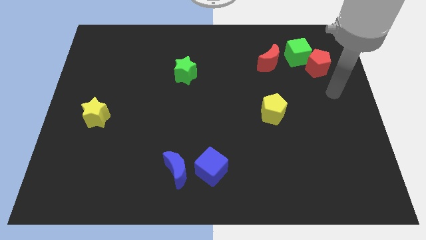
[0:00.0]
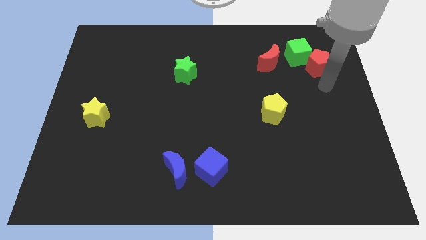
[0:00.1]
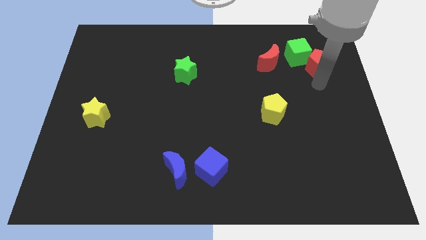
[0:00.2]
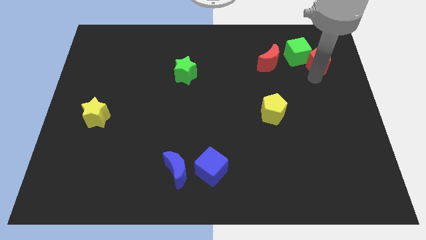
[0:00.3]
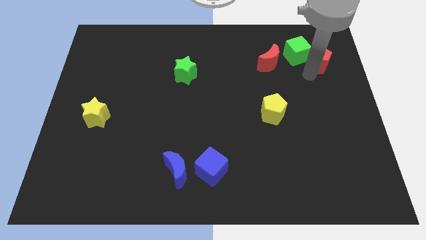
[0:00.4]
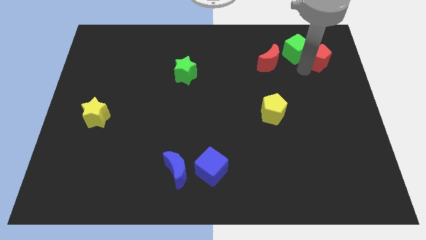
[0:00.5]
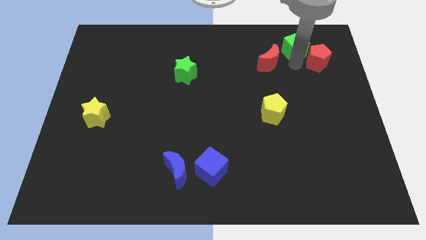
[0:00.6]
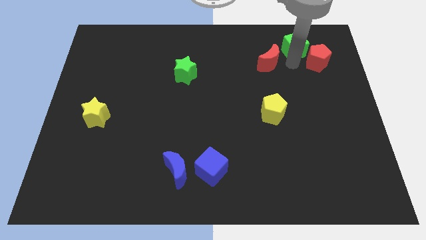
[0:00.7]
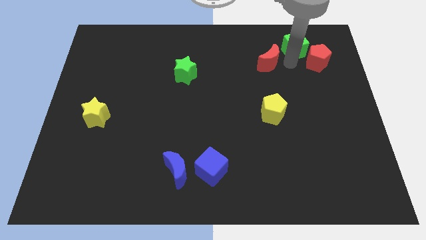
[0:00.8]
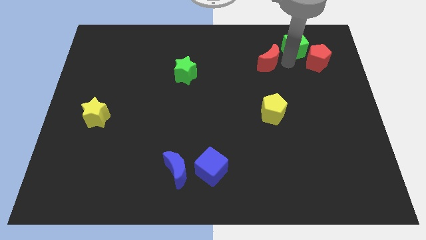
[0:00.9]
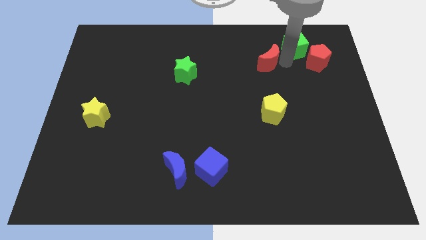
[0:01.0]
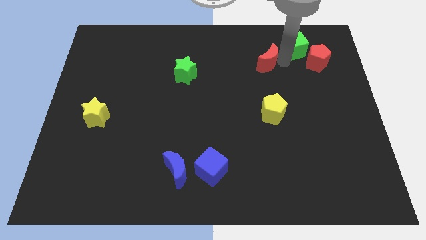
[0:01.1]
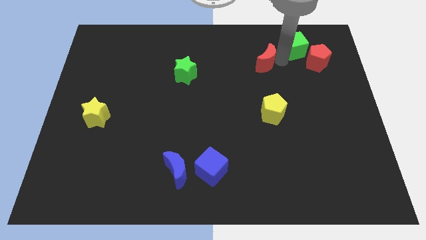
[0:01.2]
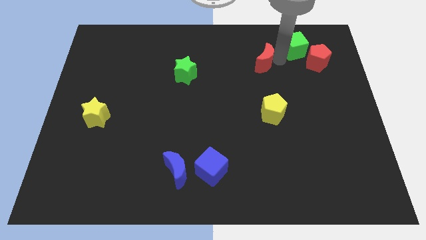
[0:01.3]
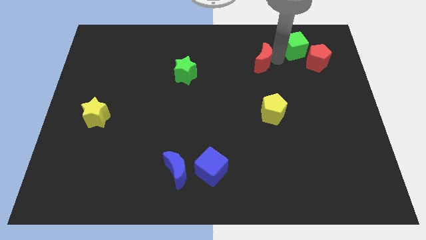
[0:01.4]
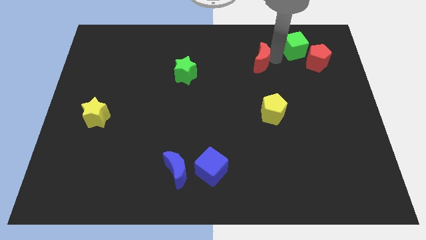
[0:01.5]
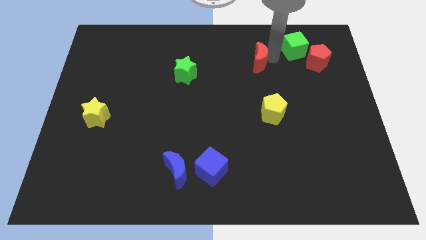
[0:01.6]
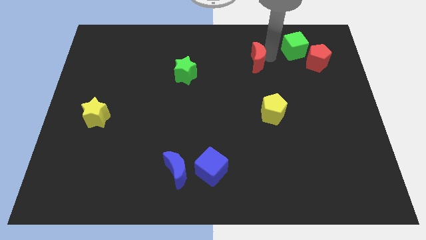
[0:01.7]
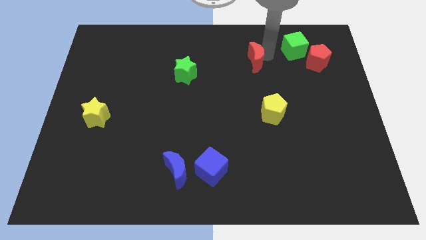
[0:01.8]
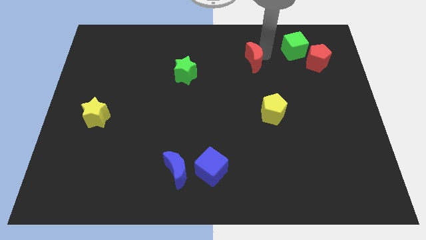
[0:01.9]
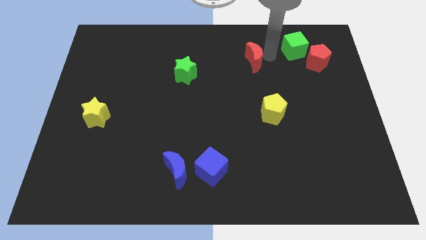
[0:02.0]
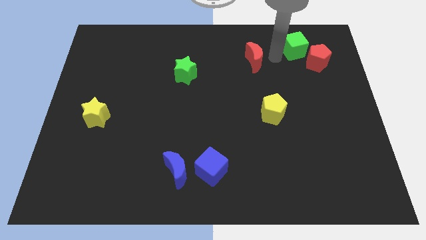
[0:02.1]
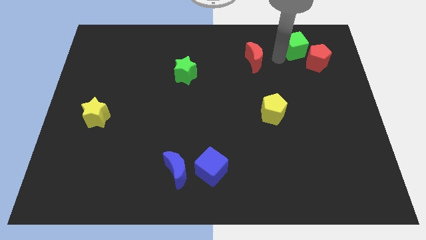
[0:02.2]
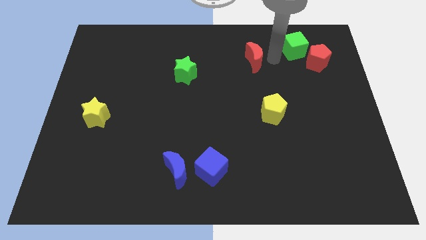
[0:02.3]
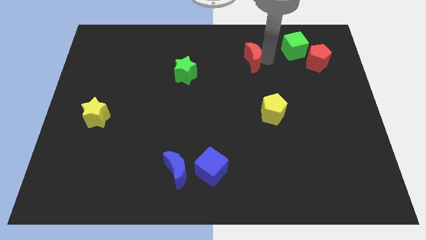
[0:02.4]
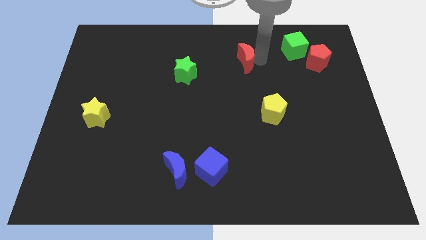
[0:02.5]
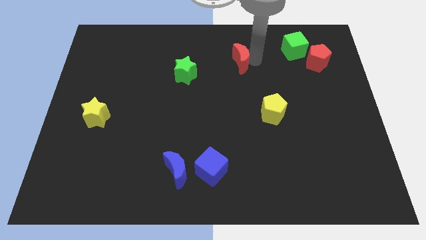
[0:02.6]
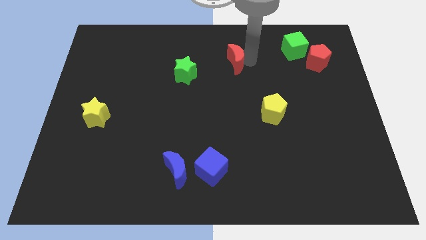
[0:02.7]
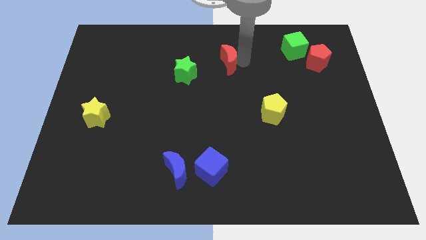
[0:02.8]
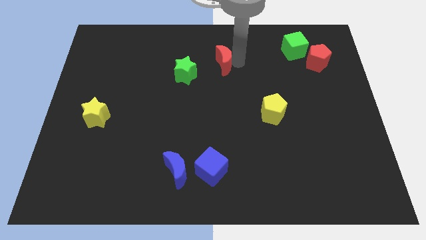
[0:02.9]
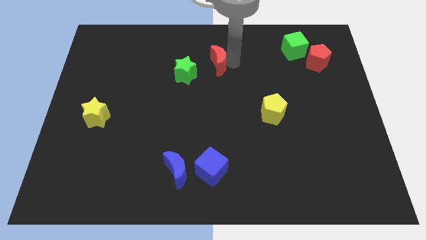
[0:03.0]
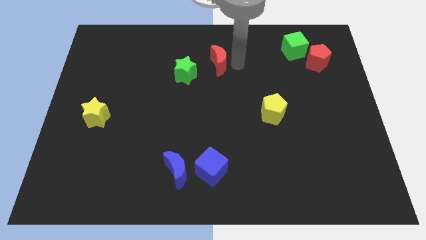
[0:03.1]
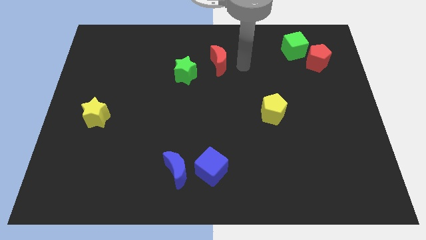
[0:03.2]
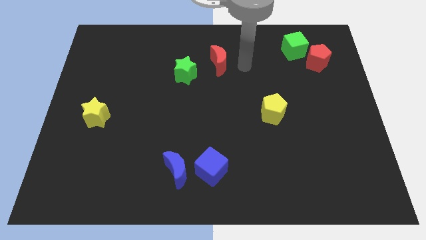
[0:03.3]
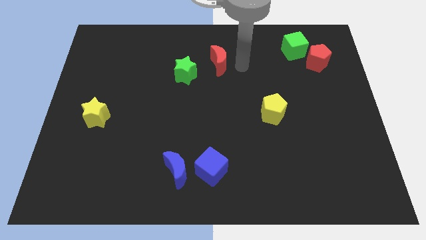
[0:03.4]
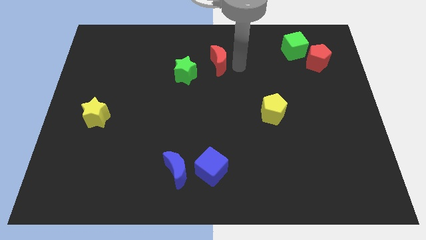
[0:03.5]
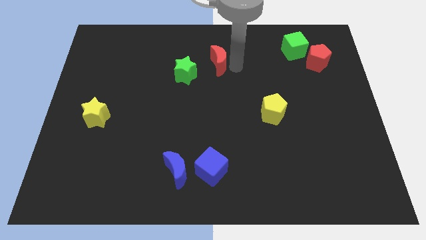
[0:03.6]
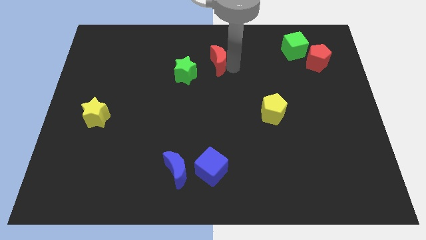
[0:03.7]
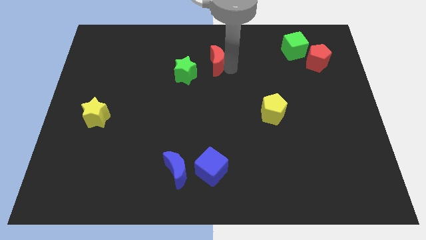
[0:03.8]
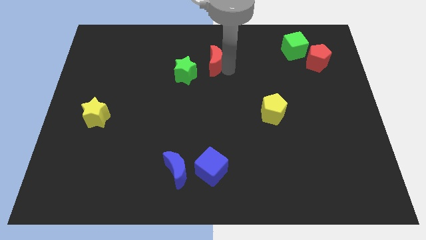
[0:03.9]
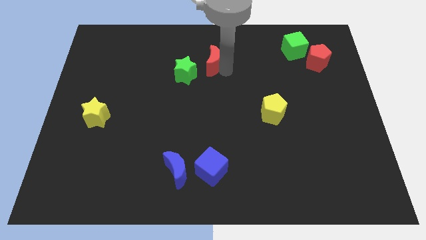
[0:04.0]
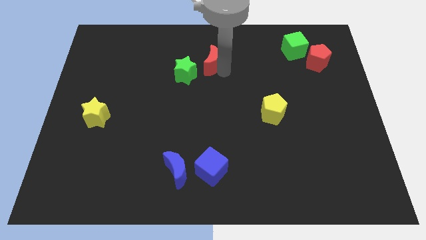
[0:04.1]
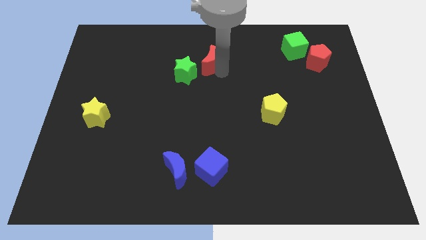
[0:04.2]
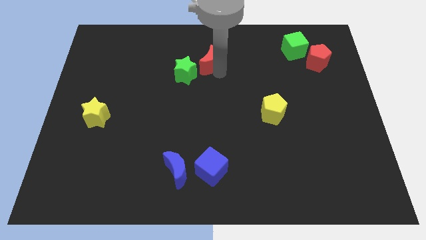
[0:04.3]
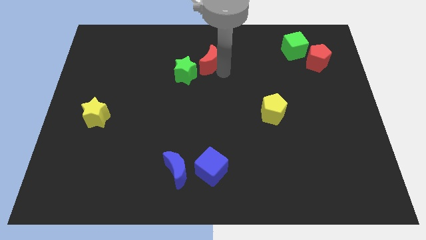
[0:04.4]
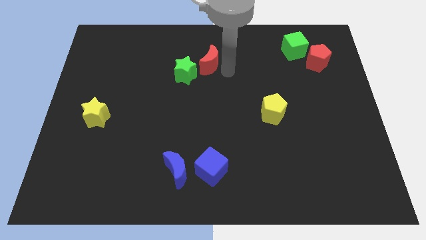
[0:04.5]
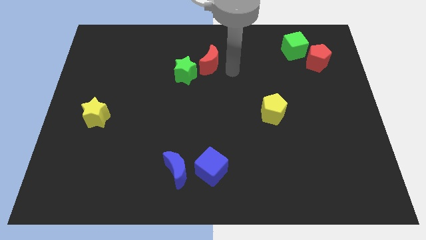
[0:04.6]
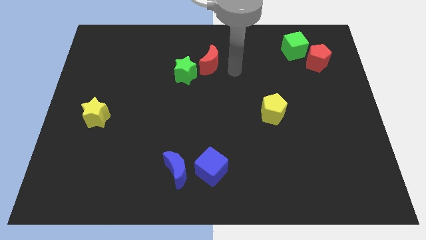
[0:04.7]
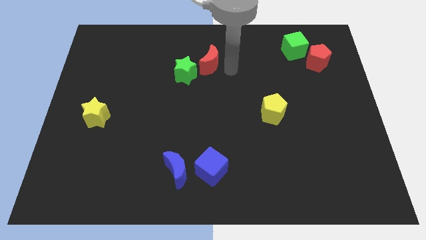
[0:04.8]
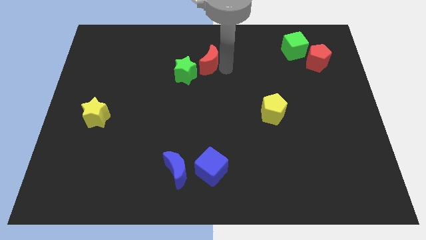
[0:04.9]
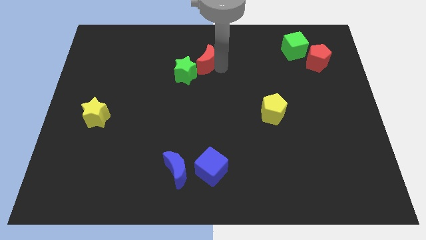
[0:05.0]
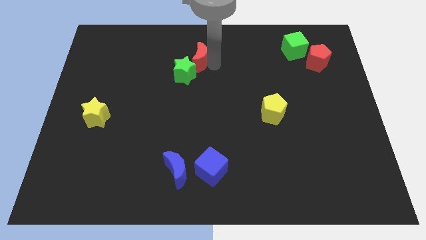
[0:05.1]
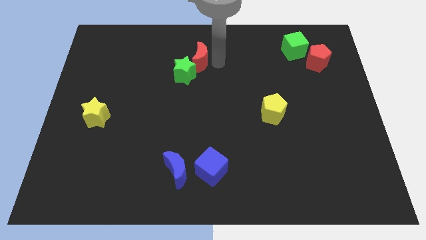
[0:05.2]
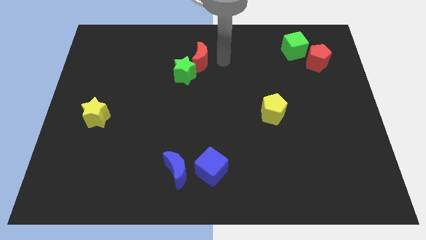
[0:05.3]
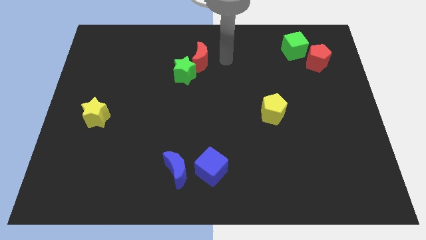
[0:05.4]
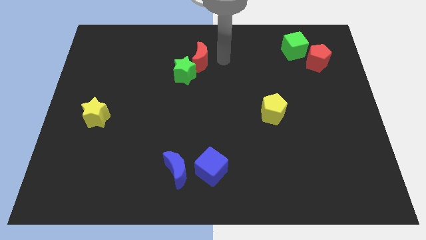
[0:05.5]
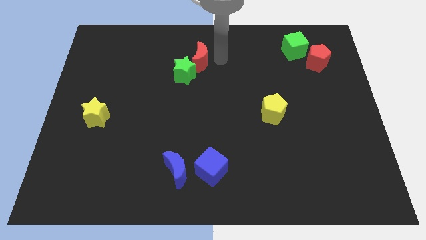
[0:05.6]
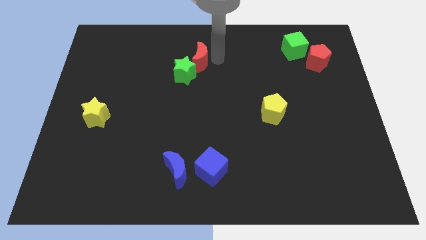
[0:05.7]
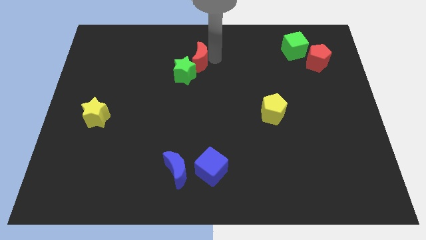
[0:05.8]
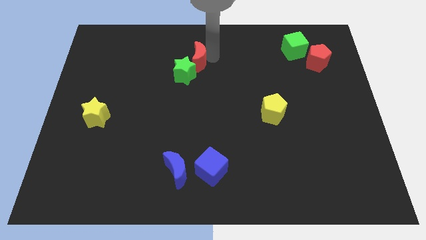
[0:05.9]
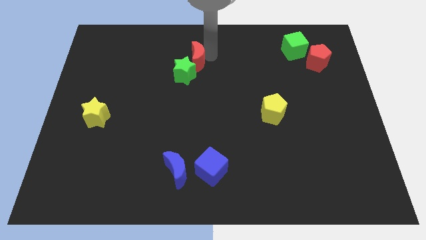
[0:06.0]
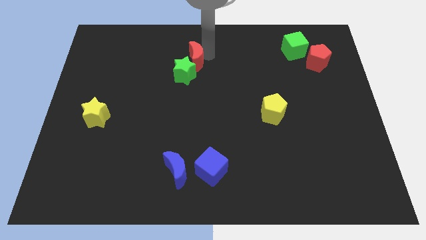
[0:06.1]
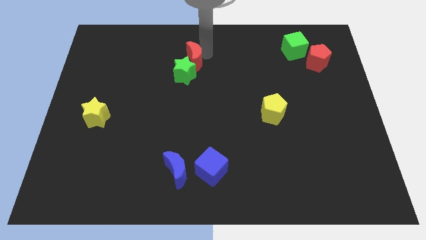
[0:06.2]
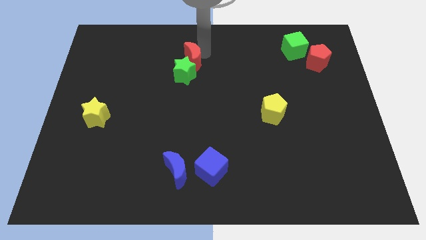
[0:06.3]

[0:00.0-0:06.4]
slide the red moon left

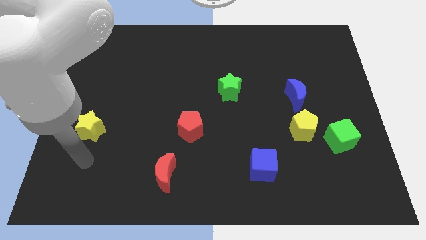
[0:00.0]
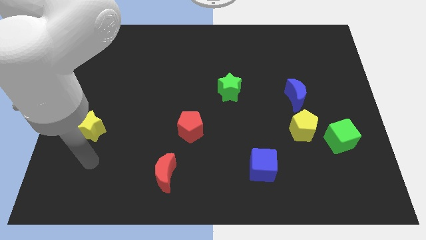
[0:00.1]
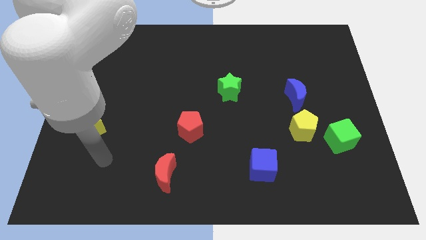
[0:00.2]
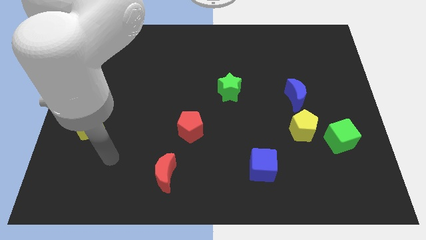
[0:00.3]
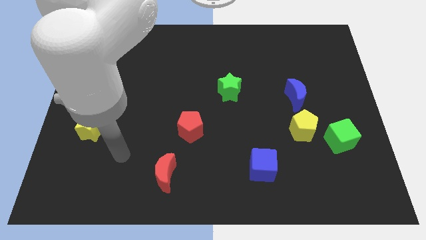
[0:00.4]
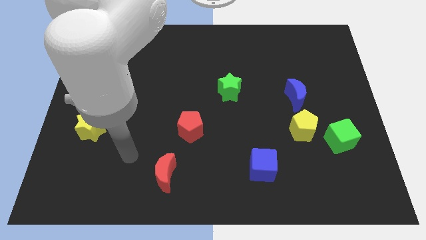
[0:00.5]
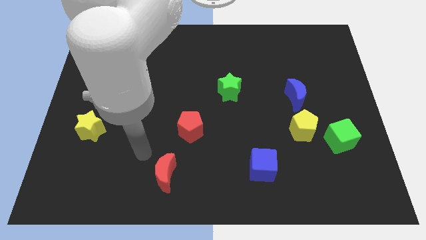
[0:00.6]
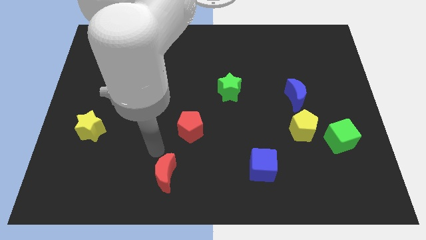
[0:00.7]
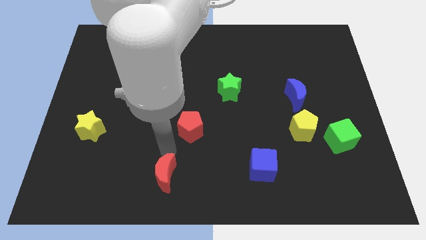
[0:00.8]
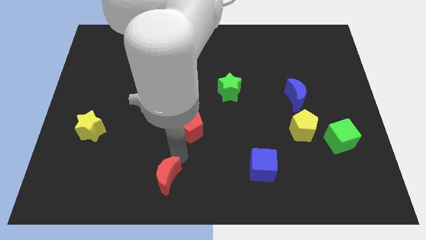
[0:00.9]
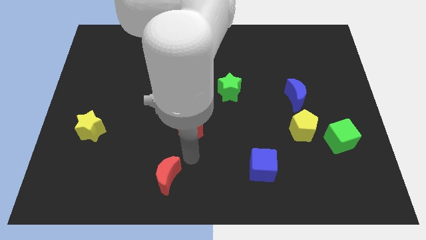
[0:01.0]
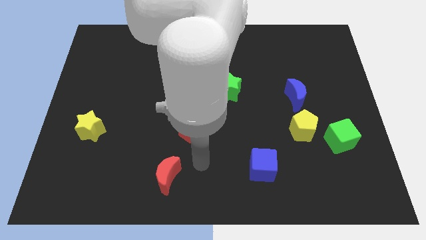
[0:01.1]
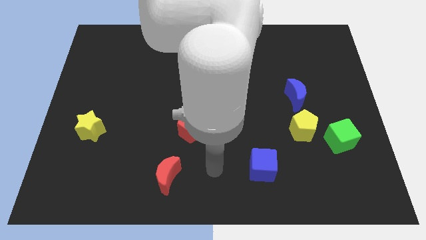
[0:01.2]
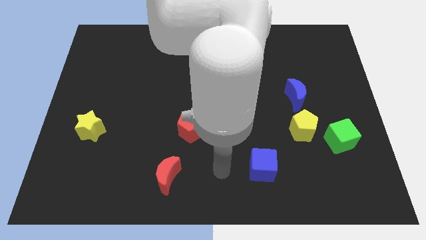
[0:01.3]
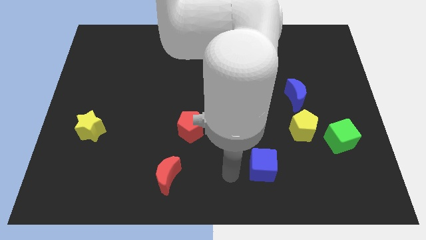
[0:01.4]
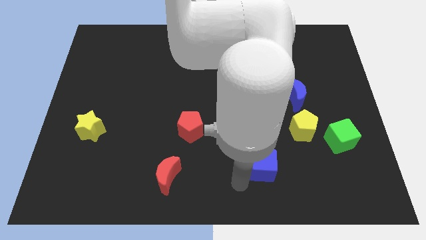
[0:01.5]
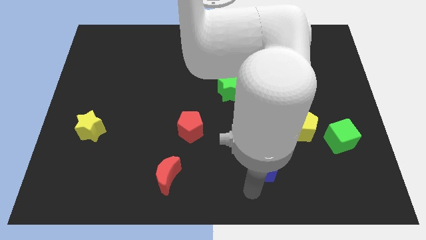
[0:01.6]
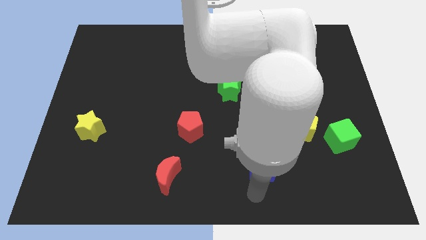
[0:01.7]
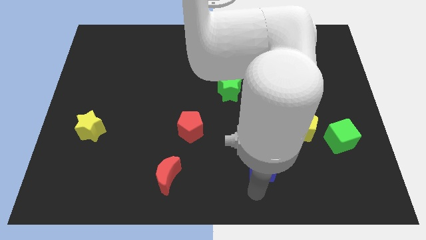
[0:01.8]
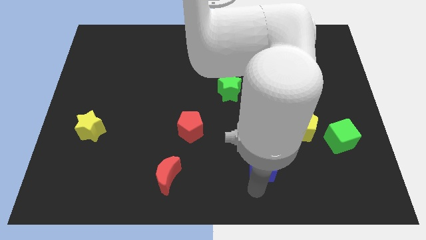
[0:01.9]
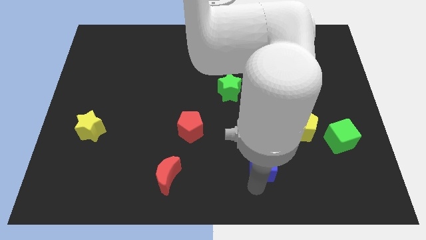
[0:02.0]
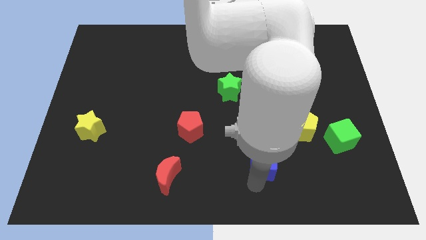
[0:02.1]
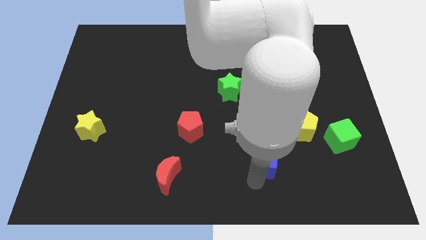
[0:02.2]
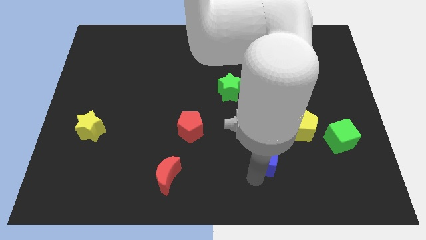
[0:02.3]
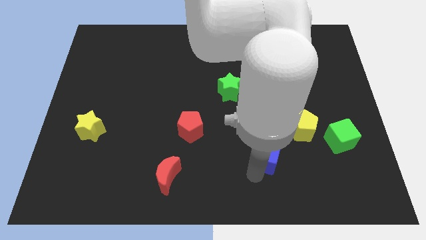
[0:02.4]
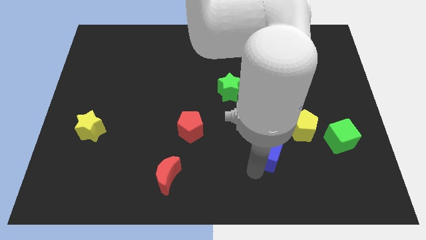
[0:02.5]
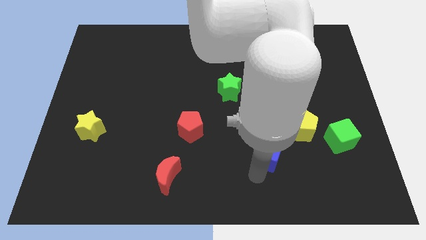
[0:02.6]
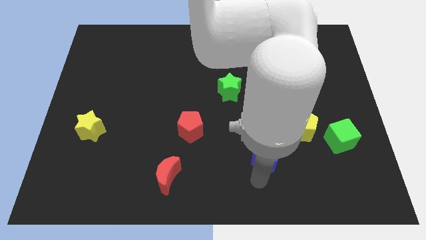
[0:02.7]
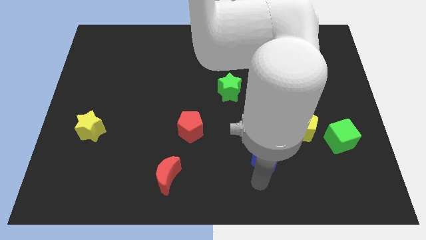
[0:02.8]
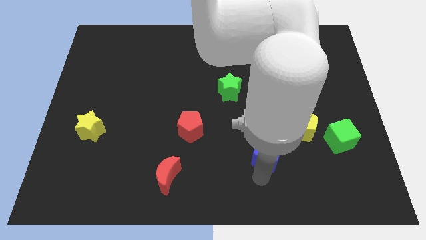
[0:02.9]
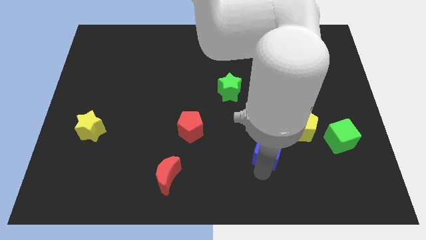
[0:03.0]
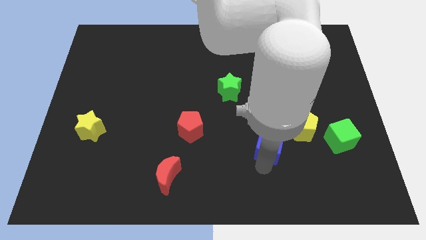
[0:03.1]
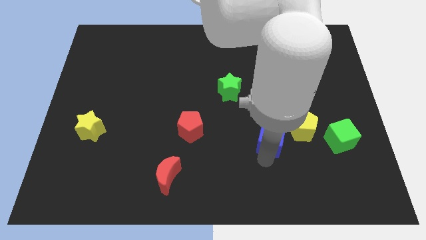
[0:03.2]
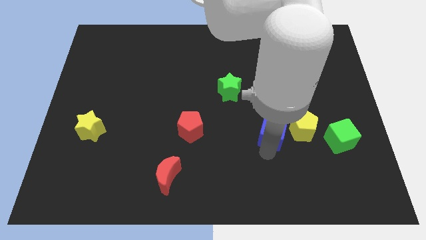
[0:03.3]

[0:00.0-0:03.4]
slide the blue cube somewhat diagonally upwards and to the right
